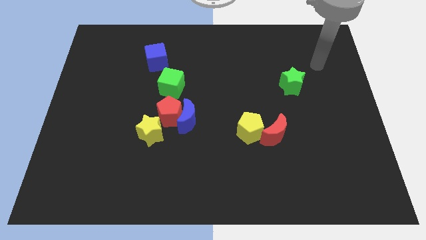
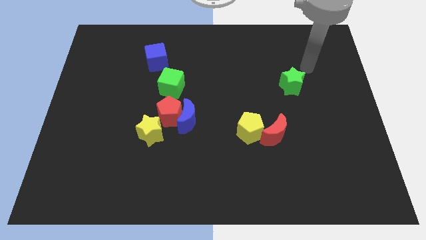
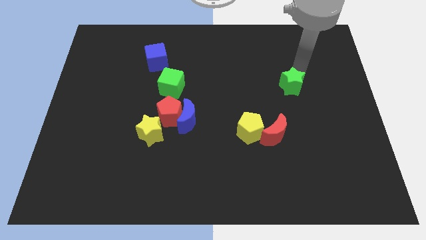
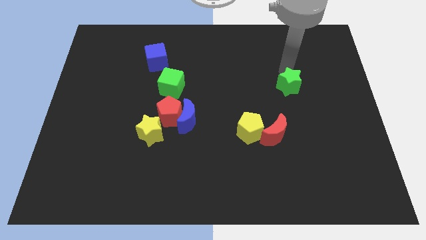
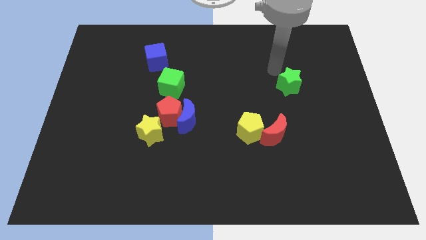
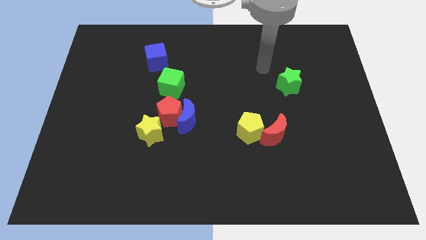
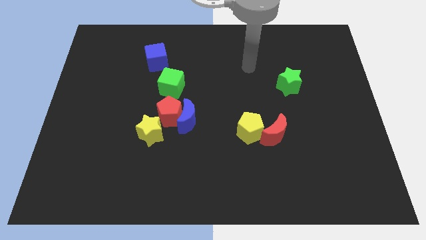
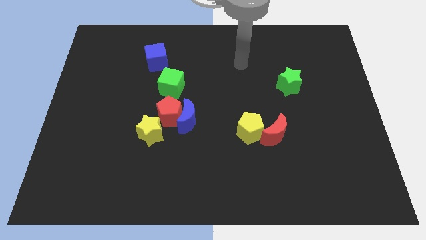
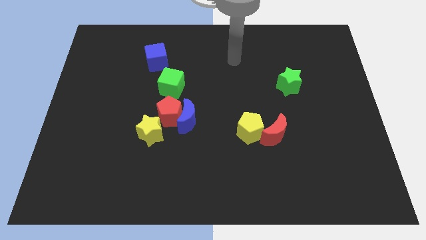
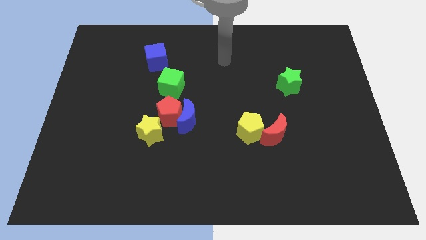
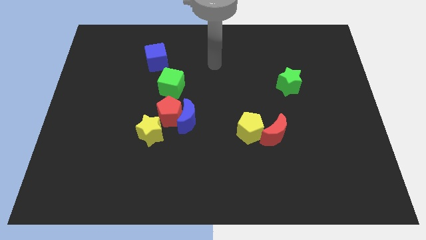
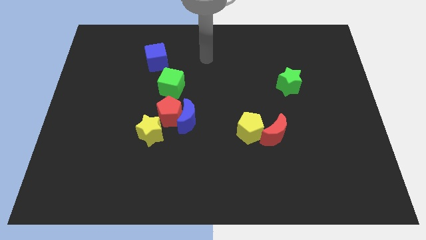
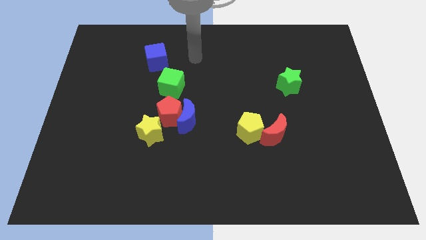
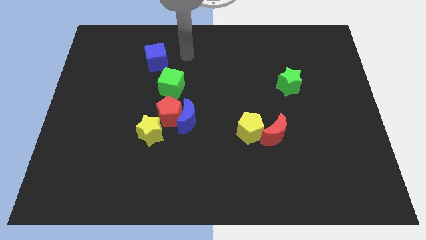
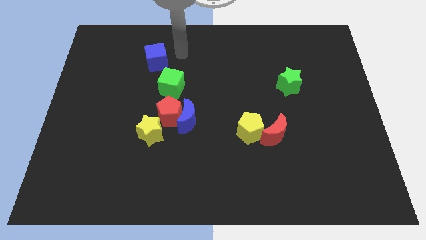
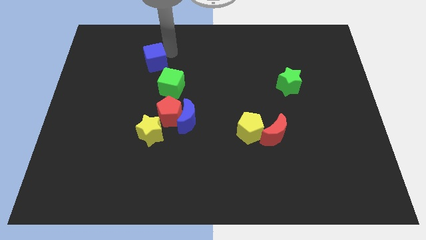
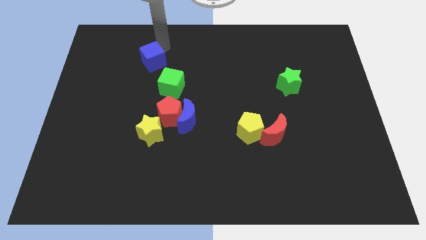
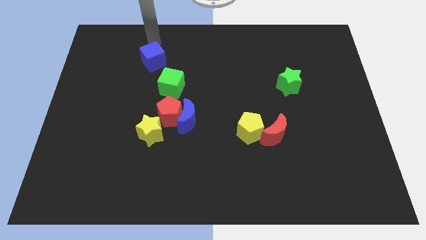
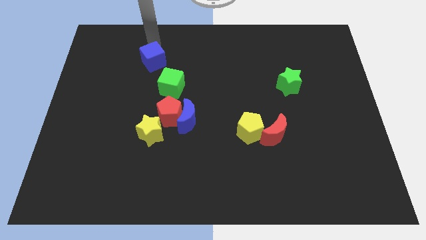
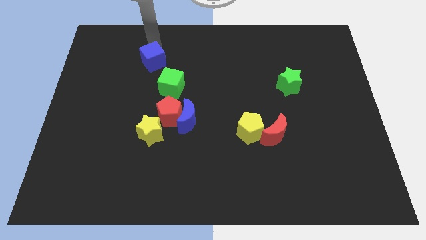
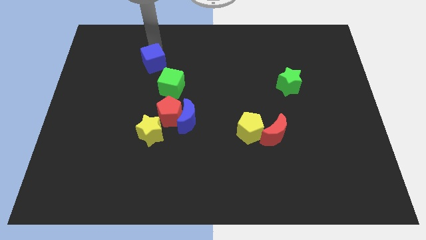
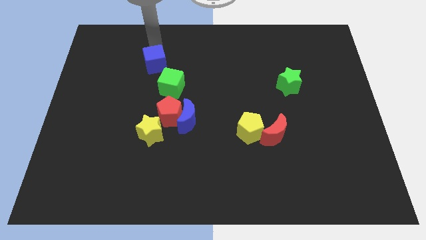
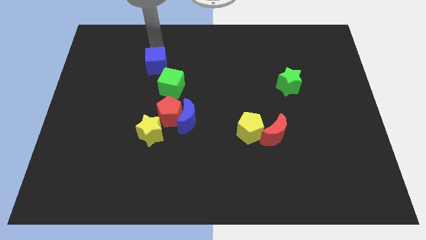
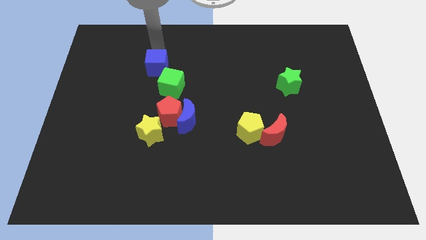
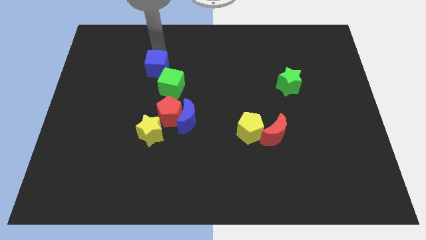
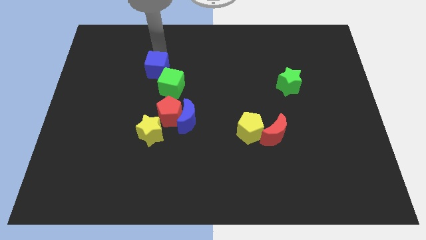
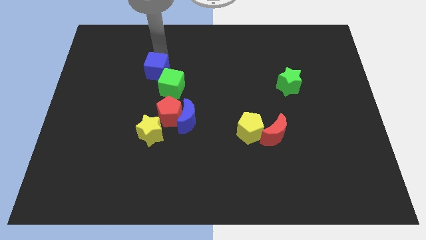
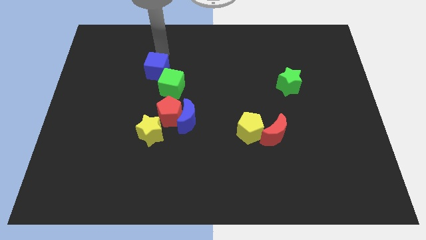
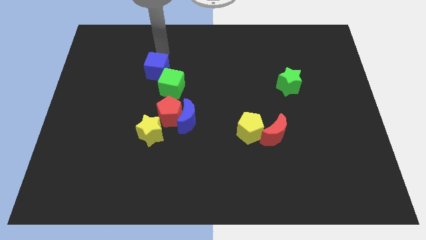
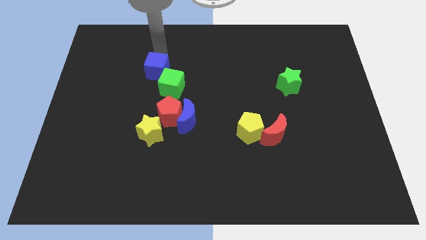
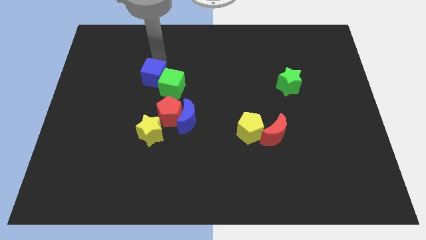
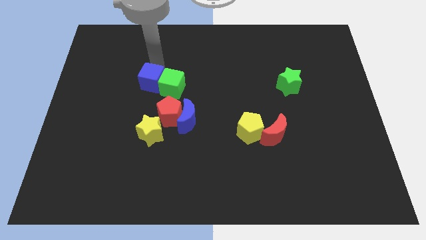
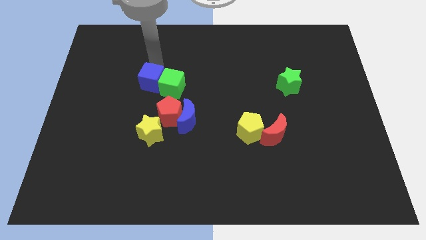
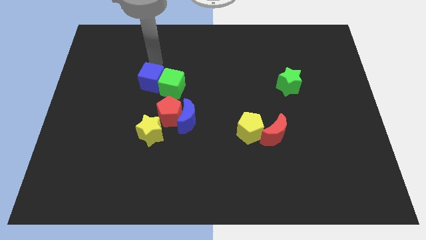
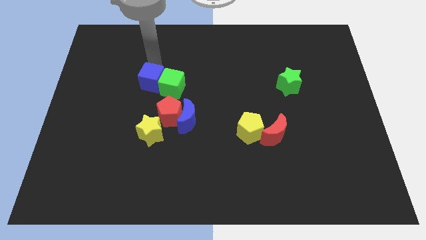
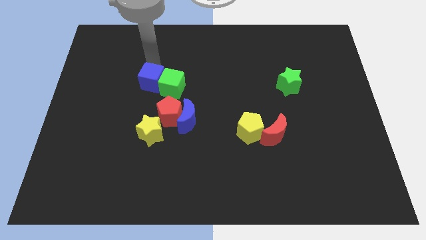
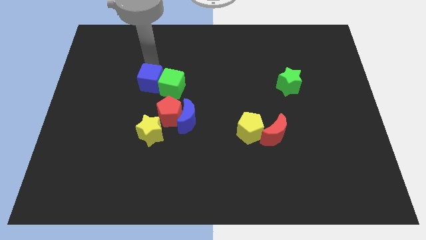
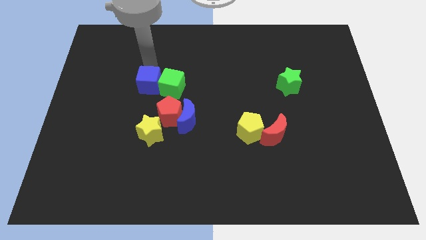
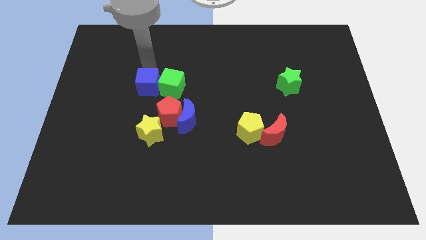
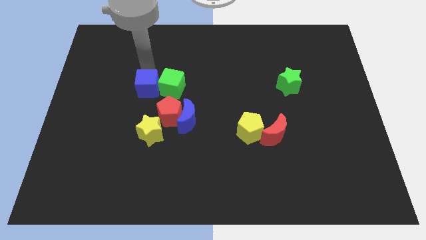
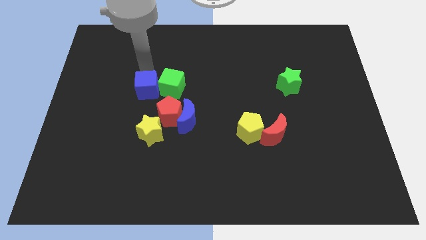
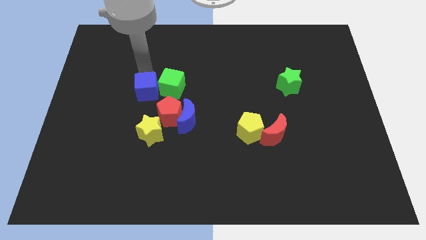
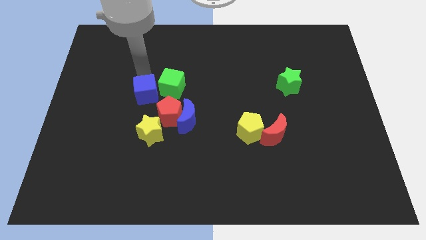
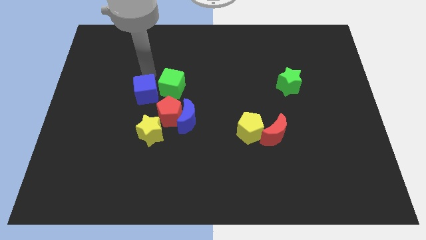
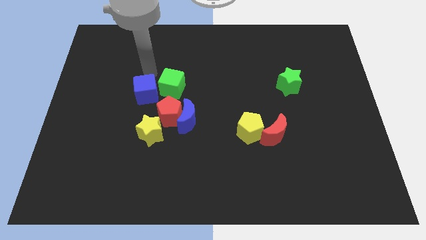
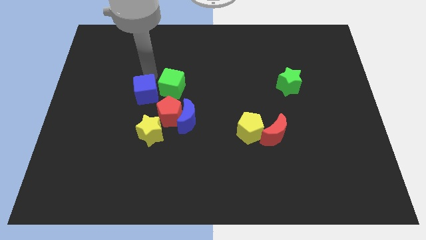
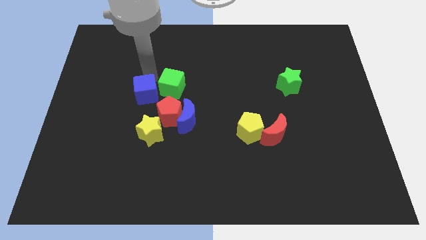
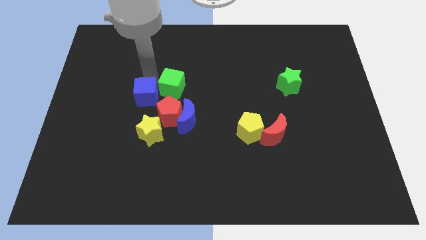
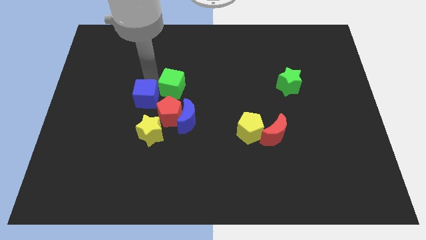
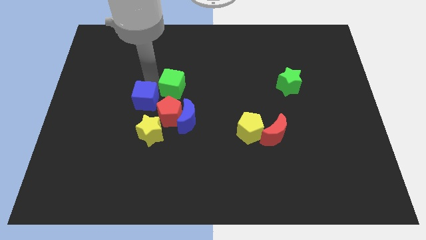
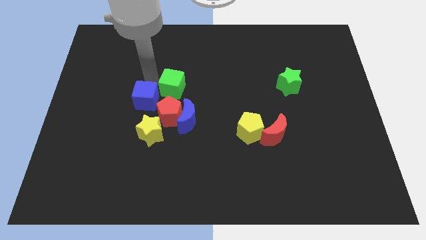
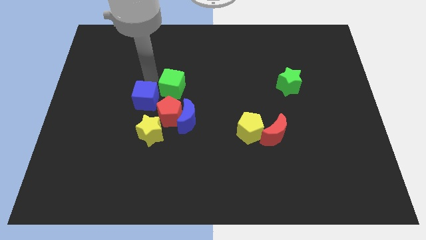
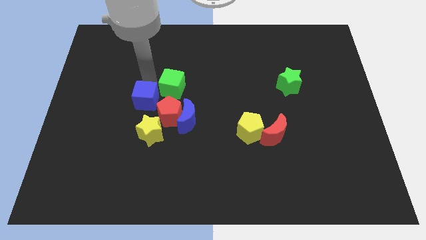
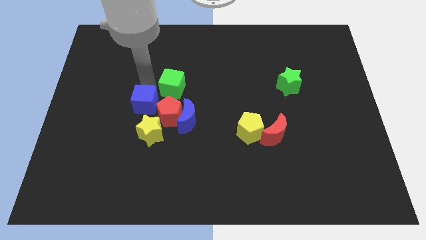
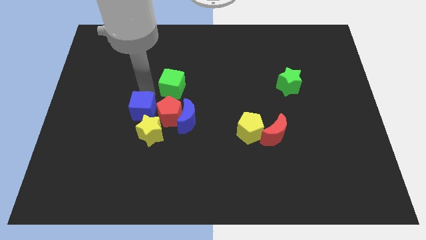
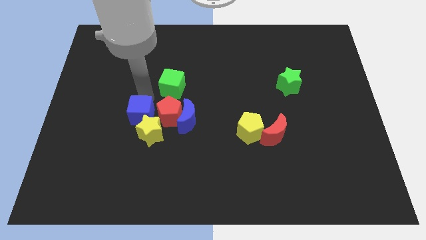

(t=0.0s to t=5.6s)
move the blue cube diagonally down and to the left of the red pentagon
